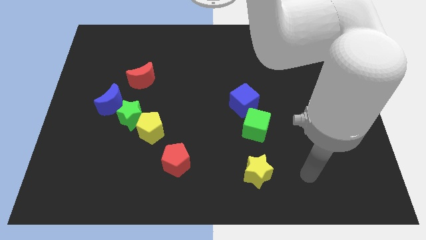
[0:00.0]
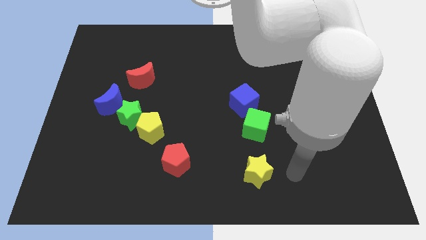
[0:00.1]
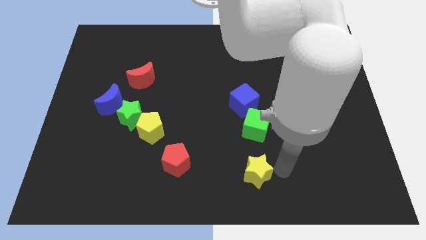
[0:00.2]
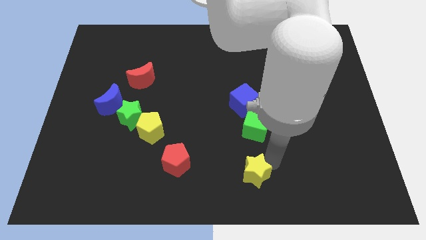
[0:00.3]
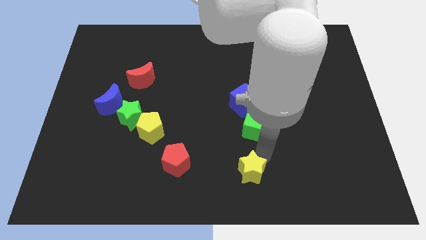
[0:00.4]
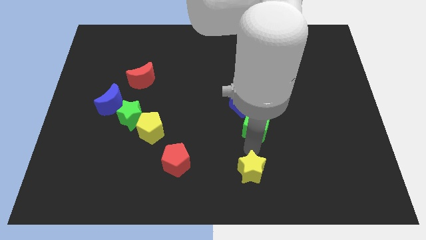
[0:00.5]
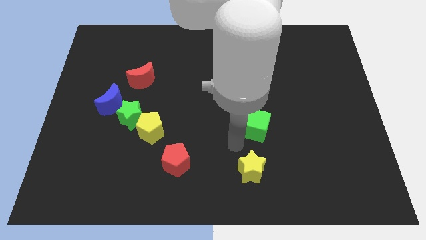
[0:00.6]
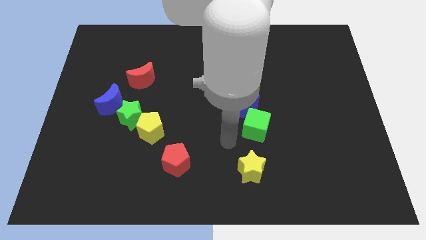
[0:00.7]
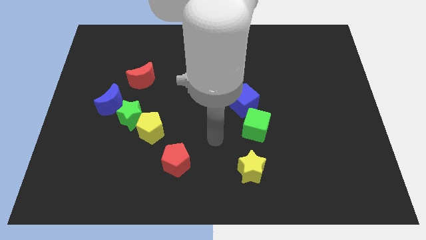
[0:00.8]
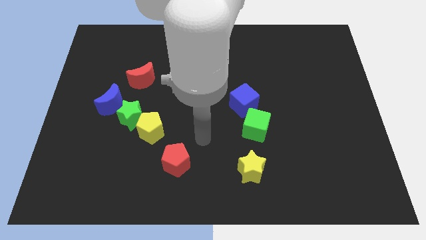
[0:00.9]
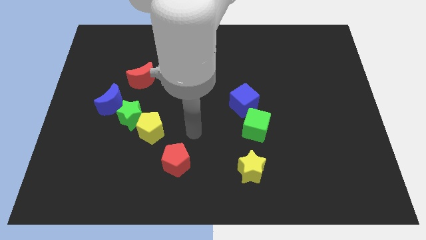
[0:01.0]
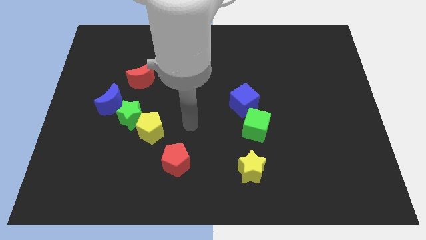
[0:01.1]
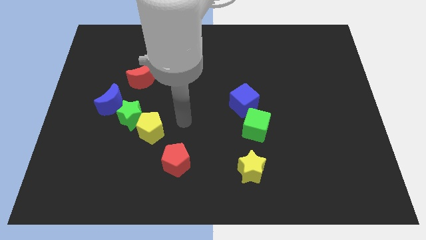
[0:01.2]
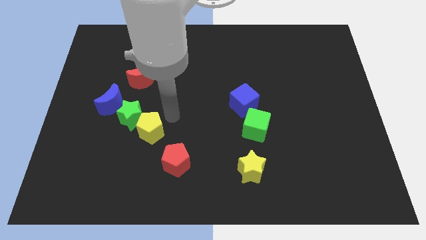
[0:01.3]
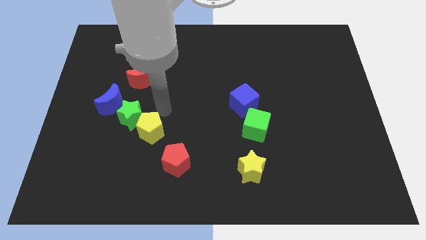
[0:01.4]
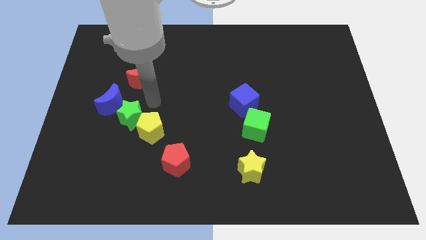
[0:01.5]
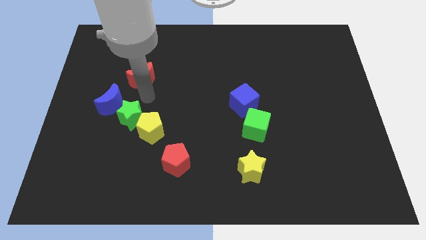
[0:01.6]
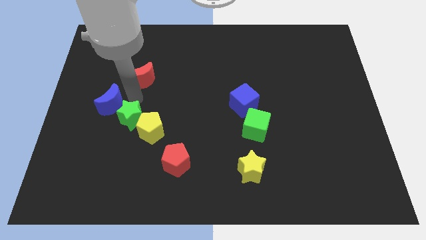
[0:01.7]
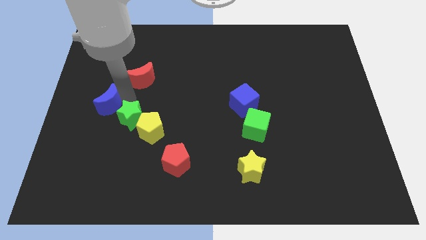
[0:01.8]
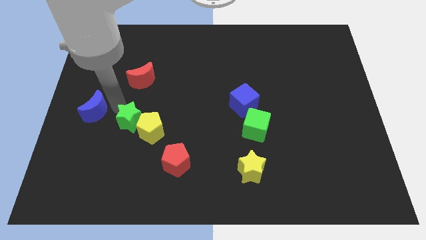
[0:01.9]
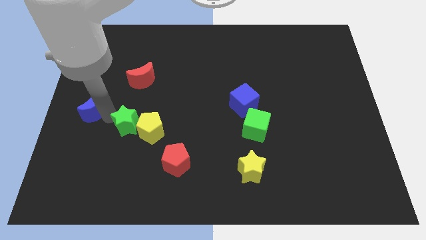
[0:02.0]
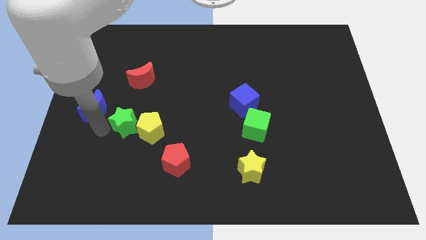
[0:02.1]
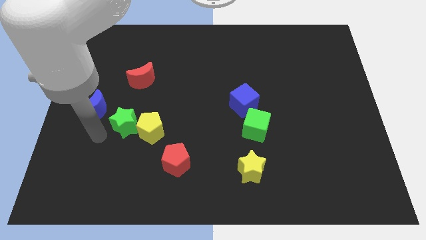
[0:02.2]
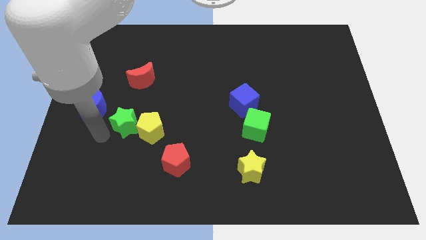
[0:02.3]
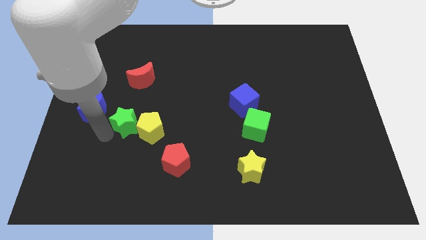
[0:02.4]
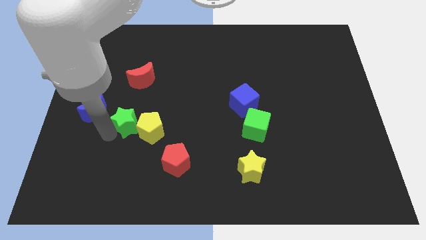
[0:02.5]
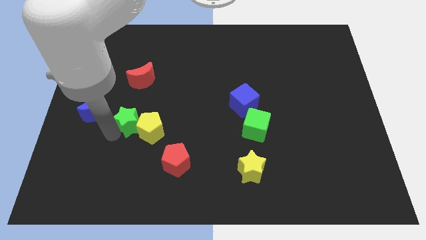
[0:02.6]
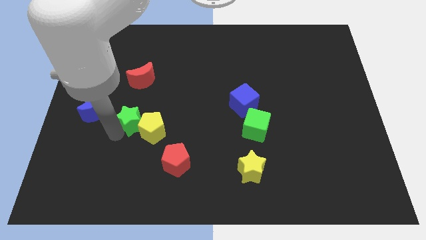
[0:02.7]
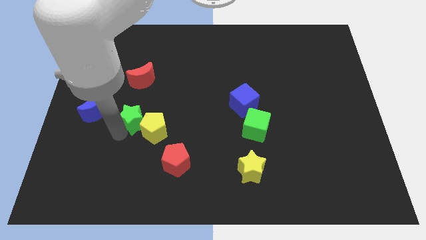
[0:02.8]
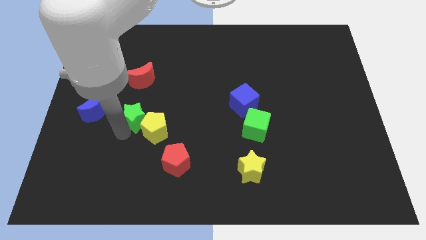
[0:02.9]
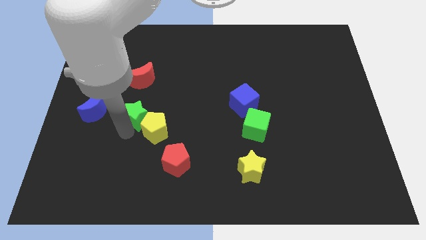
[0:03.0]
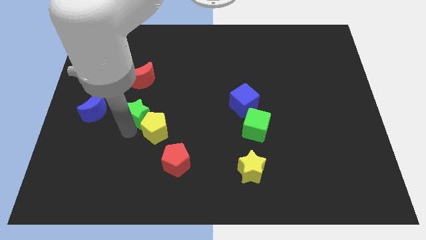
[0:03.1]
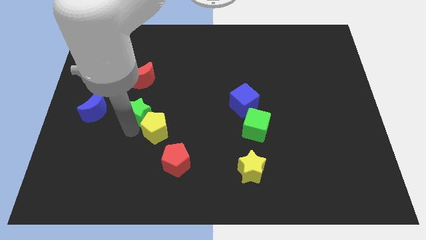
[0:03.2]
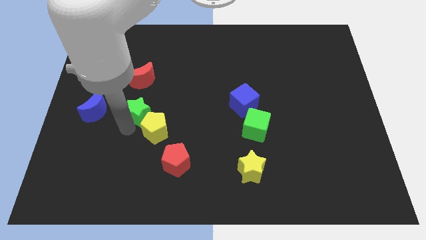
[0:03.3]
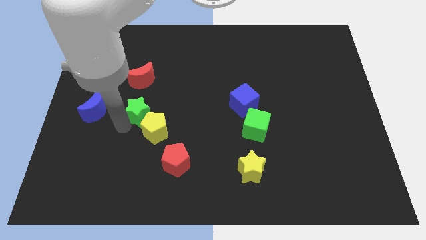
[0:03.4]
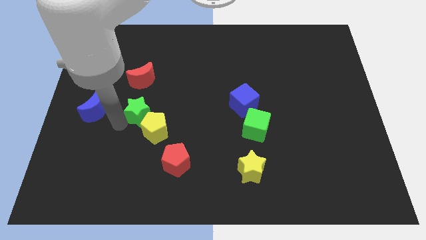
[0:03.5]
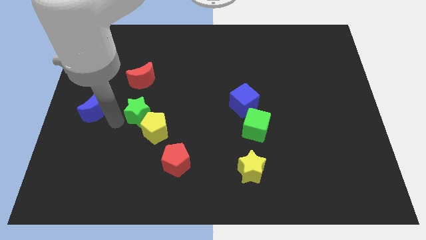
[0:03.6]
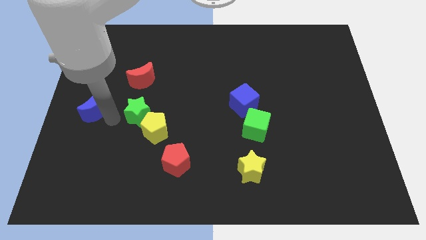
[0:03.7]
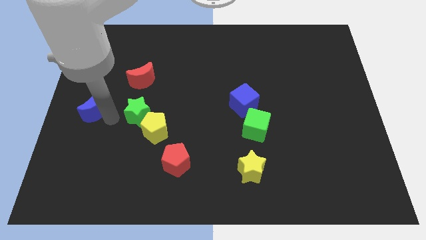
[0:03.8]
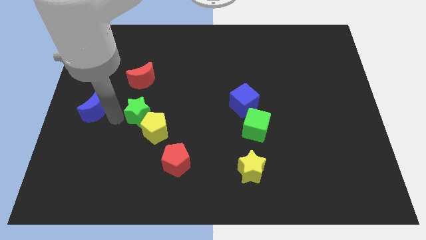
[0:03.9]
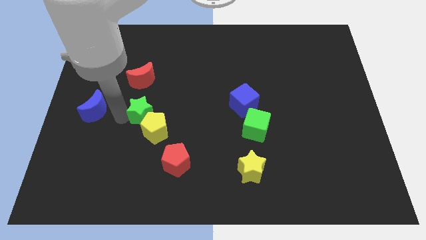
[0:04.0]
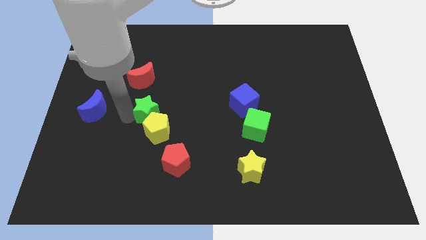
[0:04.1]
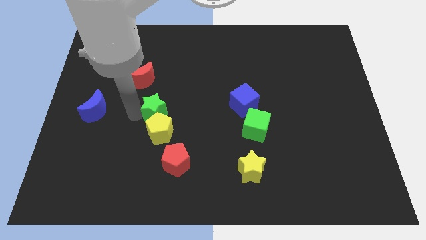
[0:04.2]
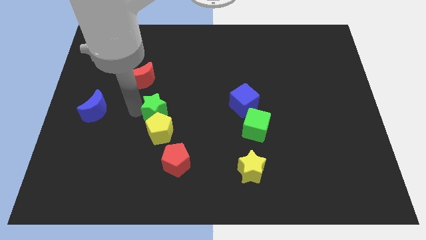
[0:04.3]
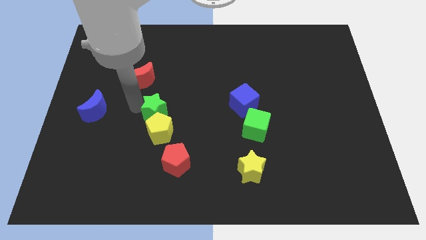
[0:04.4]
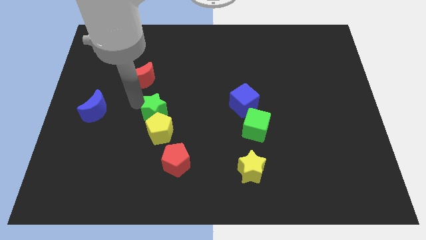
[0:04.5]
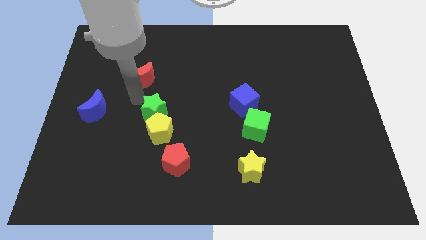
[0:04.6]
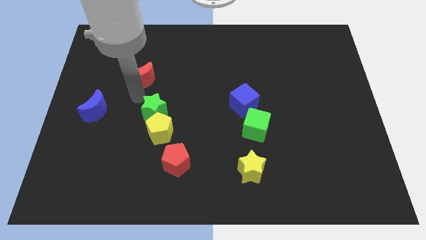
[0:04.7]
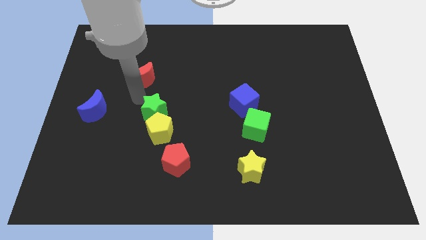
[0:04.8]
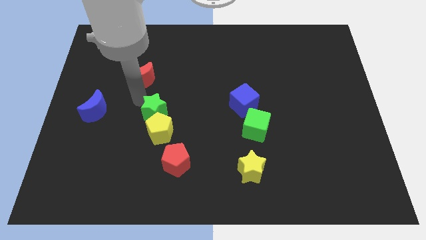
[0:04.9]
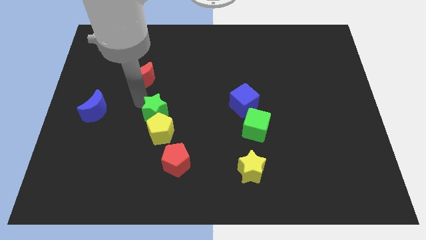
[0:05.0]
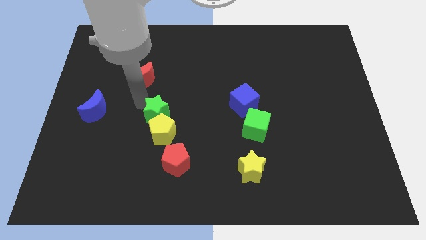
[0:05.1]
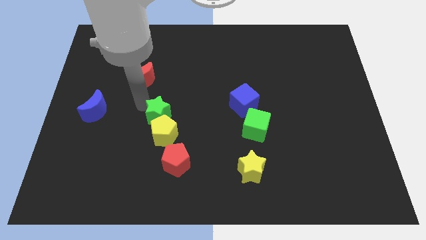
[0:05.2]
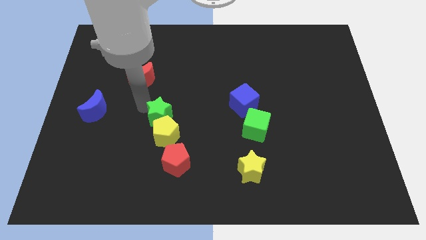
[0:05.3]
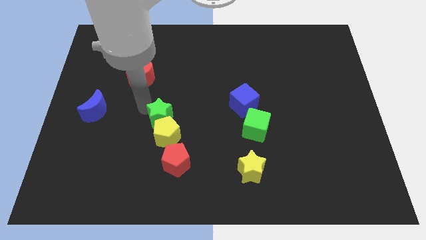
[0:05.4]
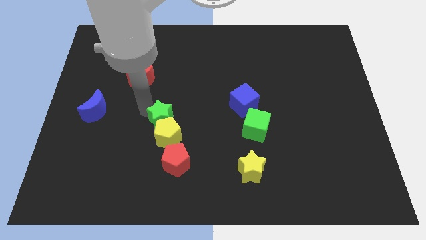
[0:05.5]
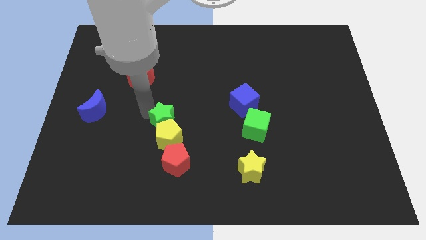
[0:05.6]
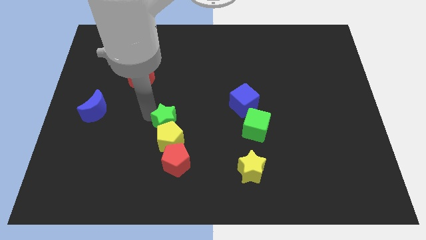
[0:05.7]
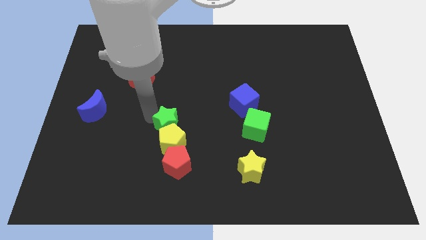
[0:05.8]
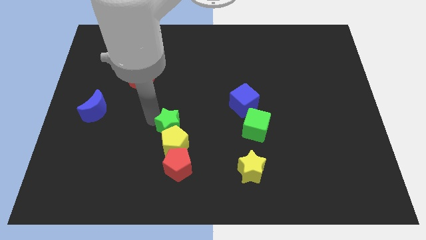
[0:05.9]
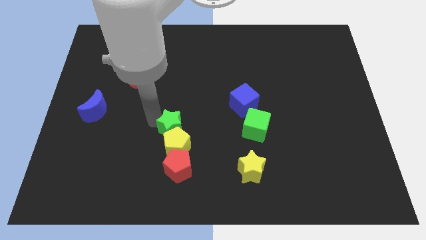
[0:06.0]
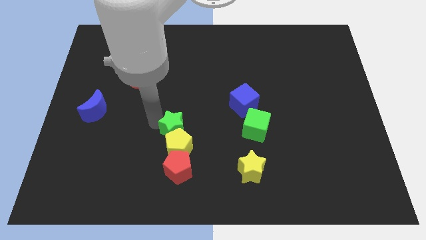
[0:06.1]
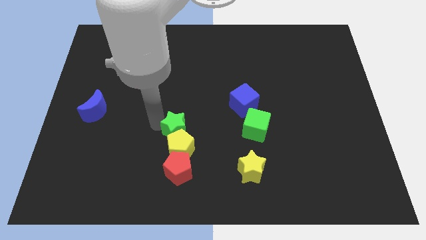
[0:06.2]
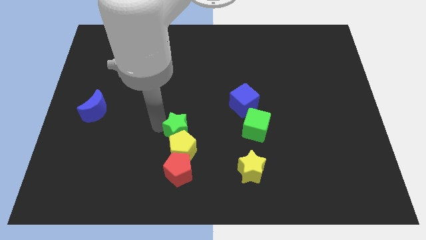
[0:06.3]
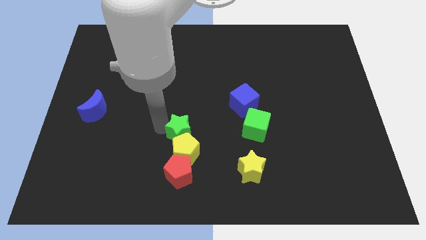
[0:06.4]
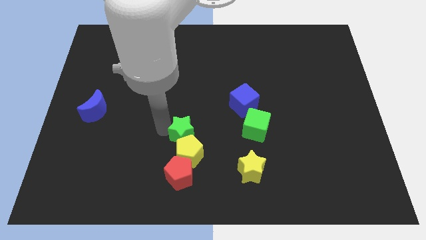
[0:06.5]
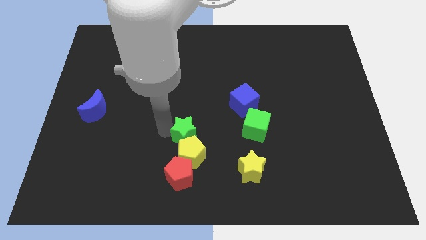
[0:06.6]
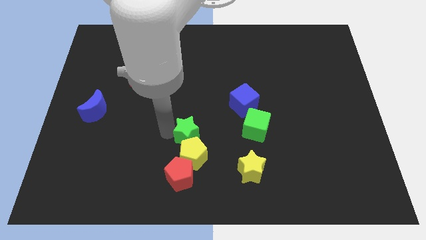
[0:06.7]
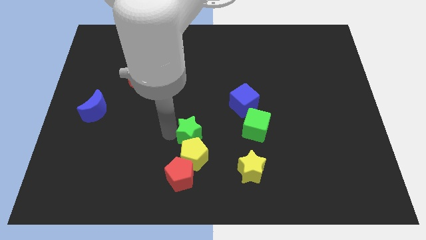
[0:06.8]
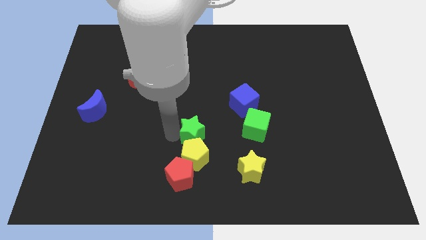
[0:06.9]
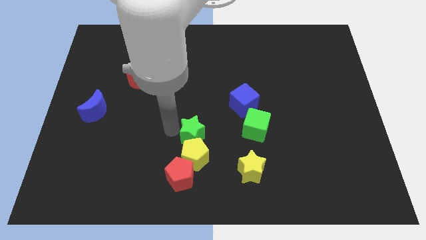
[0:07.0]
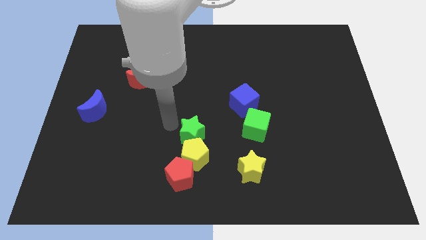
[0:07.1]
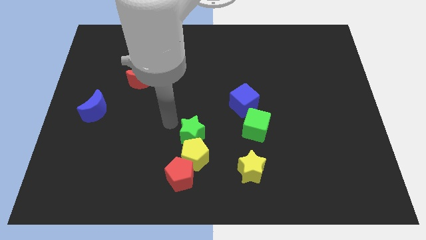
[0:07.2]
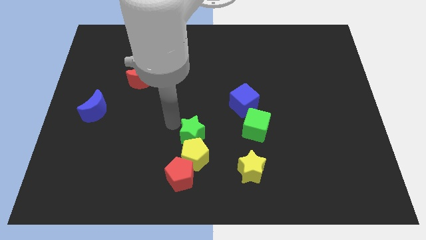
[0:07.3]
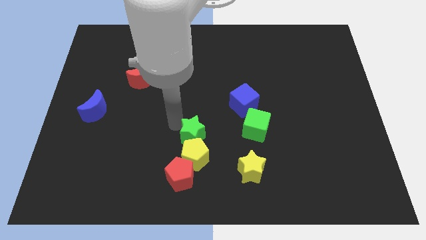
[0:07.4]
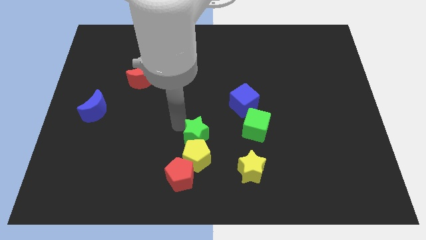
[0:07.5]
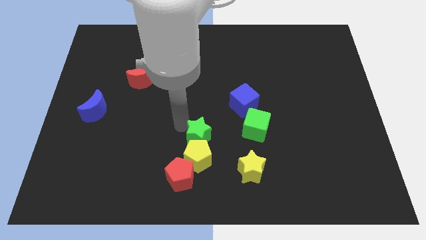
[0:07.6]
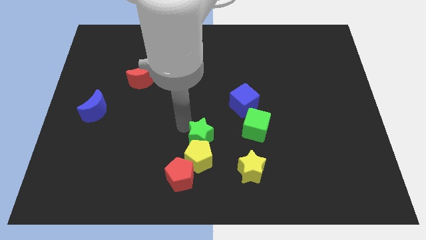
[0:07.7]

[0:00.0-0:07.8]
push the green star to the top left of the yellow star
